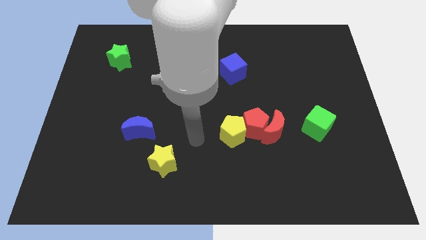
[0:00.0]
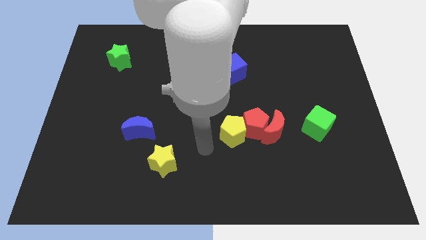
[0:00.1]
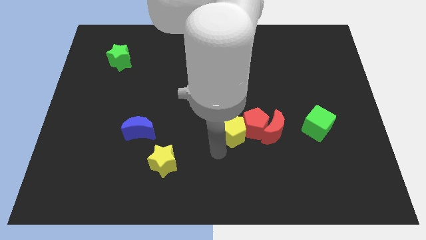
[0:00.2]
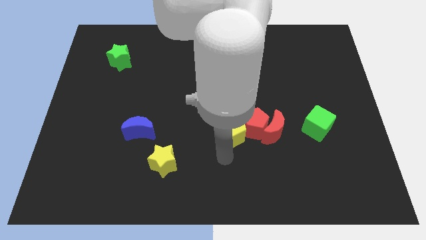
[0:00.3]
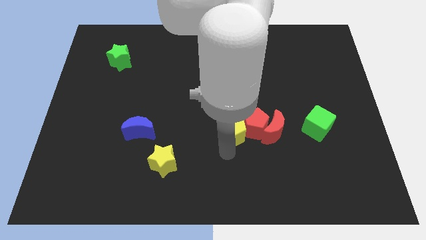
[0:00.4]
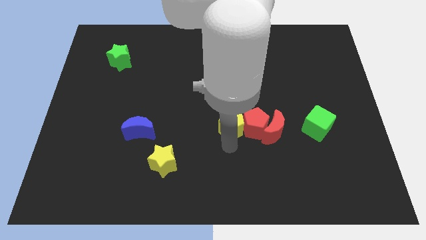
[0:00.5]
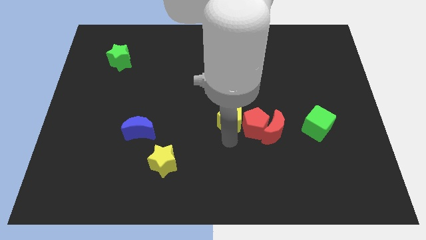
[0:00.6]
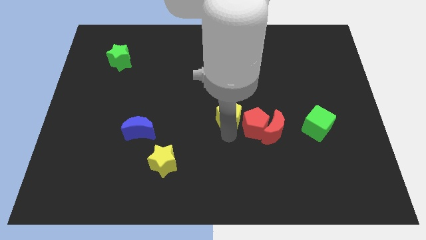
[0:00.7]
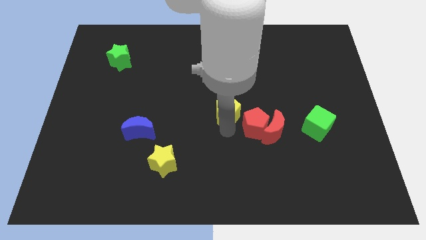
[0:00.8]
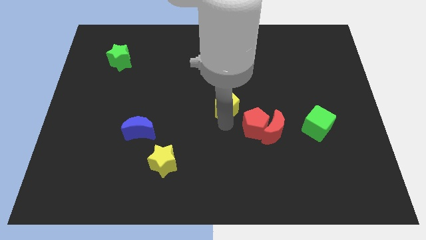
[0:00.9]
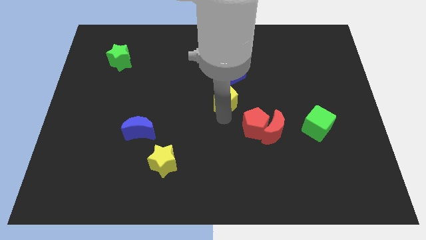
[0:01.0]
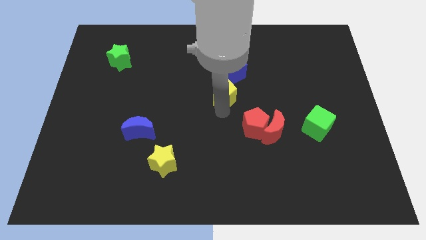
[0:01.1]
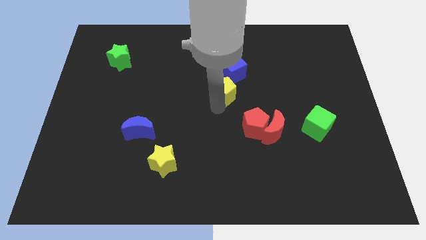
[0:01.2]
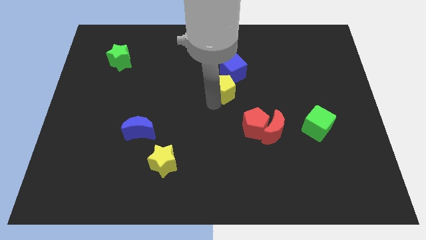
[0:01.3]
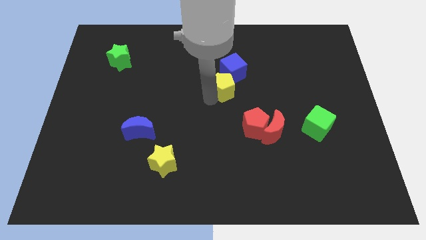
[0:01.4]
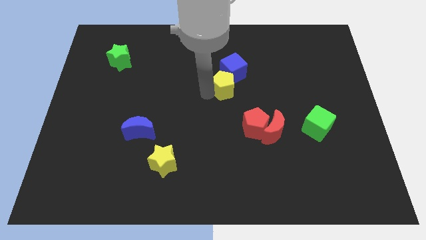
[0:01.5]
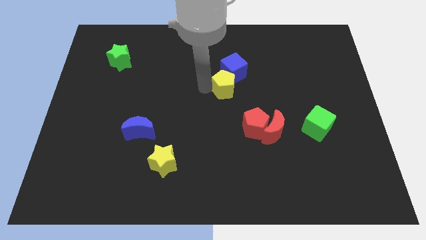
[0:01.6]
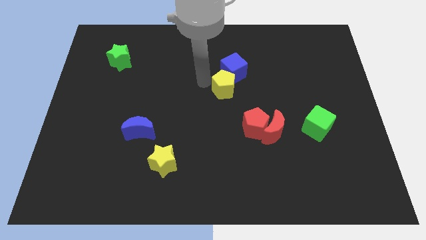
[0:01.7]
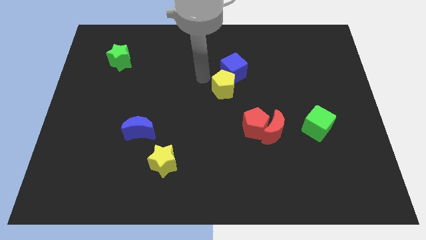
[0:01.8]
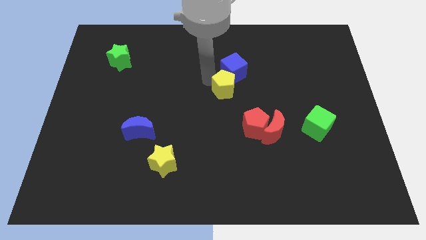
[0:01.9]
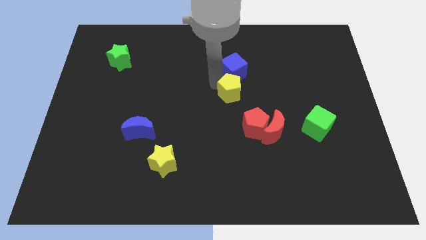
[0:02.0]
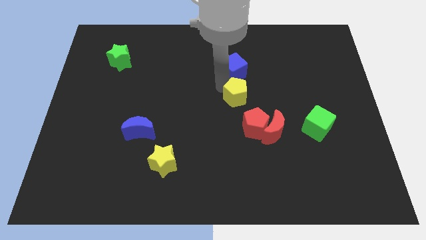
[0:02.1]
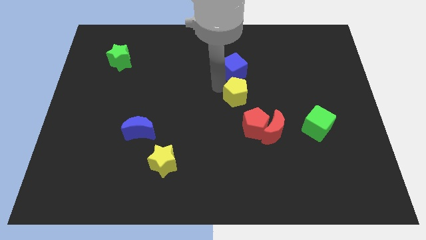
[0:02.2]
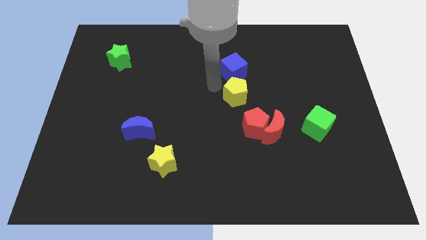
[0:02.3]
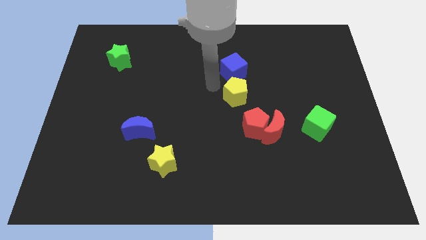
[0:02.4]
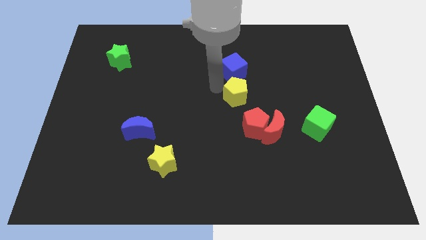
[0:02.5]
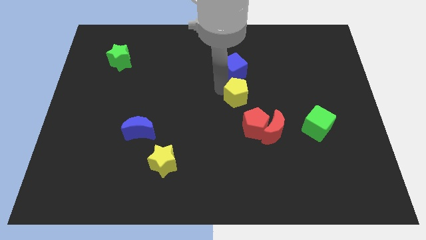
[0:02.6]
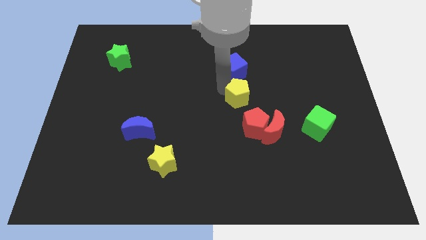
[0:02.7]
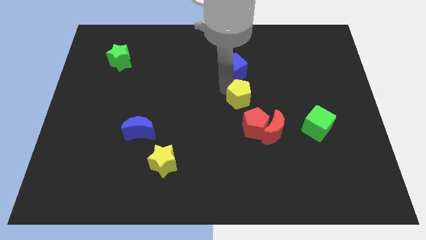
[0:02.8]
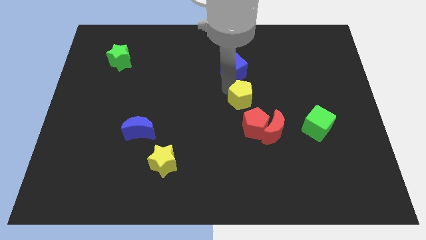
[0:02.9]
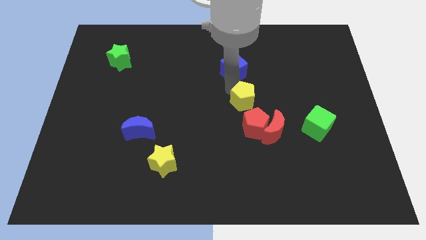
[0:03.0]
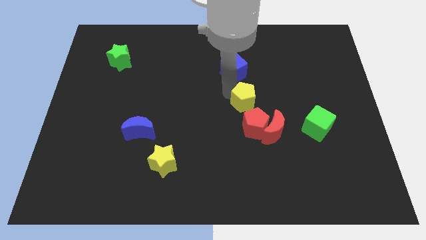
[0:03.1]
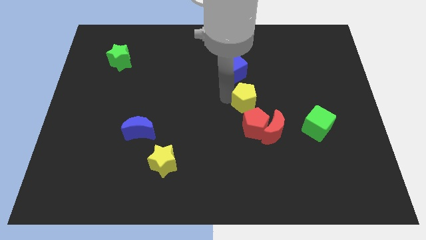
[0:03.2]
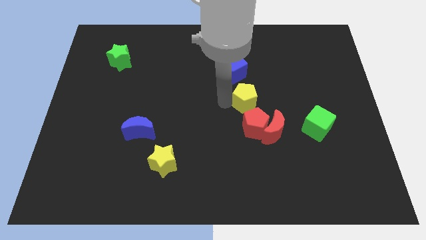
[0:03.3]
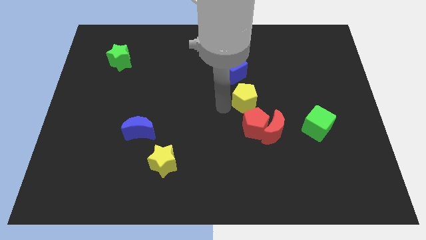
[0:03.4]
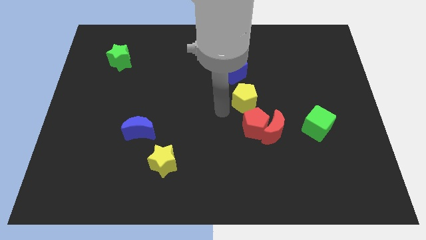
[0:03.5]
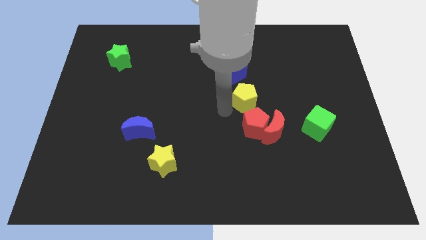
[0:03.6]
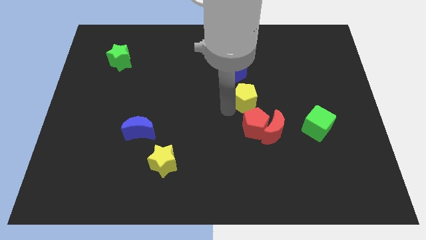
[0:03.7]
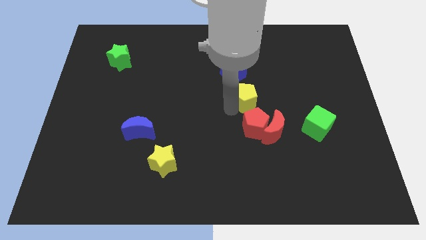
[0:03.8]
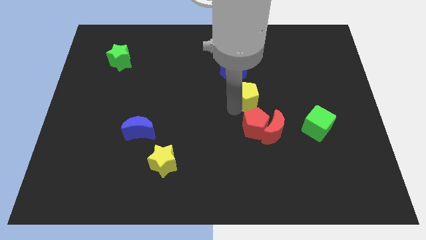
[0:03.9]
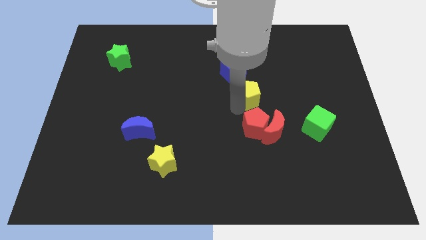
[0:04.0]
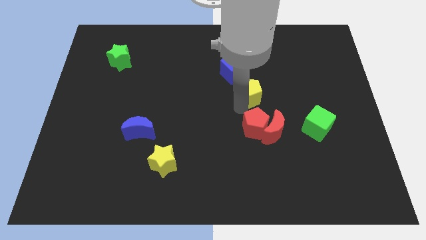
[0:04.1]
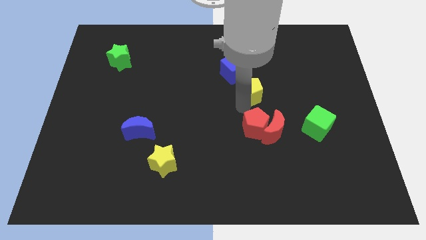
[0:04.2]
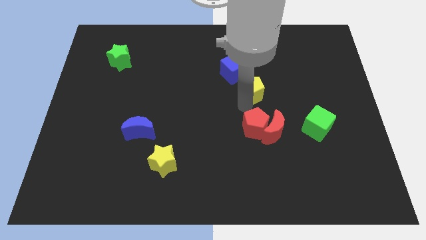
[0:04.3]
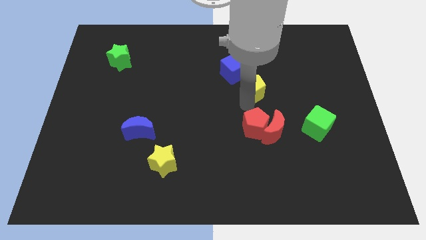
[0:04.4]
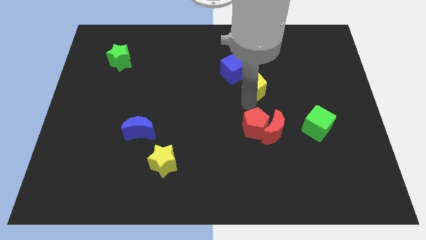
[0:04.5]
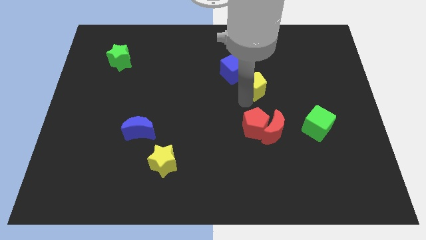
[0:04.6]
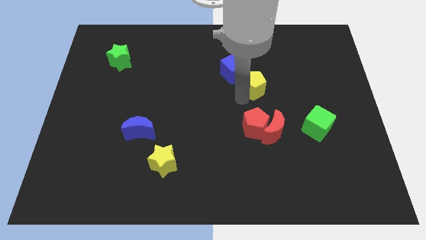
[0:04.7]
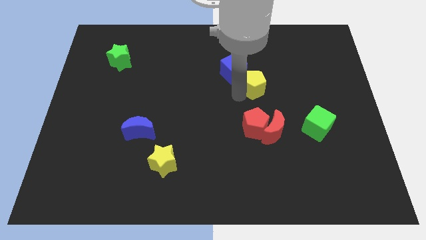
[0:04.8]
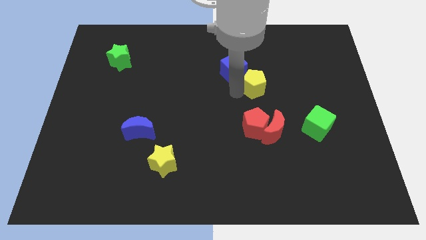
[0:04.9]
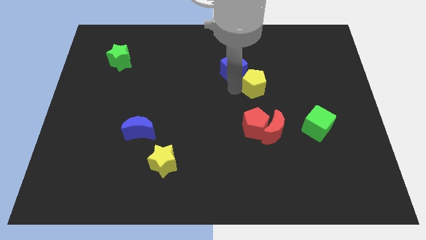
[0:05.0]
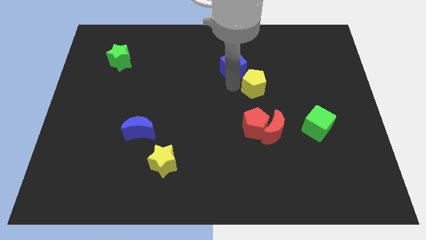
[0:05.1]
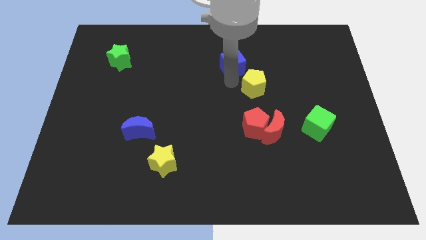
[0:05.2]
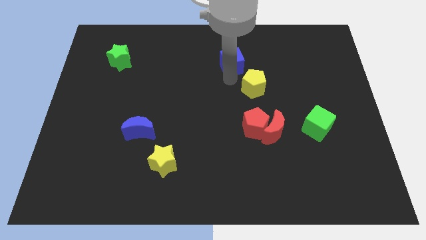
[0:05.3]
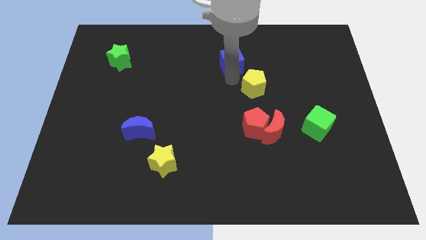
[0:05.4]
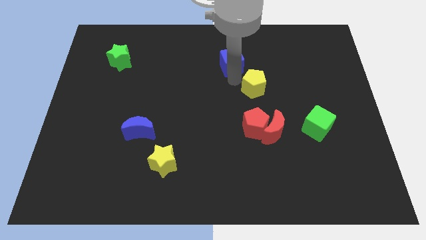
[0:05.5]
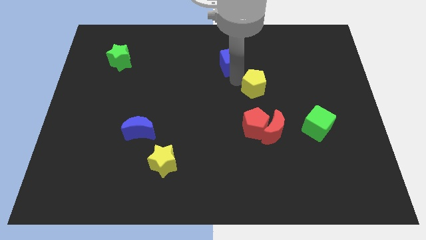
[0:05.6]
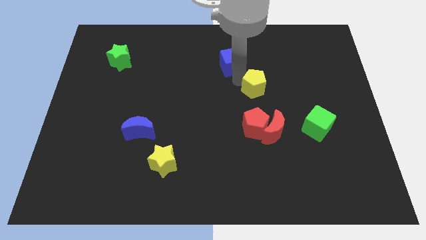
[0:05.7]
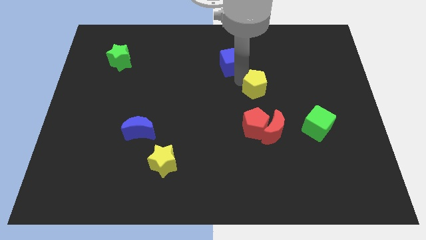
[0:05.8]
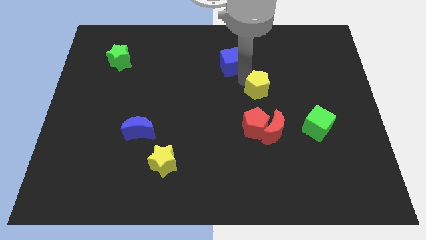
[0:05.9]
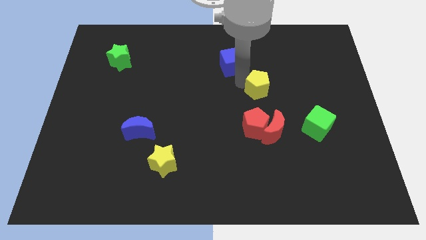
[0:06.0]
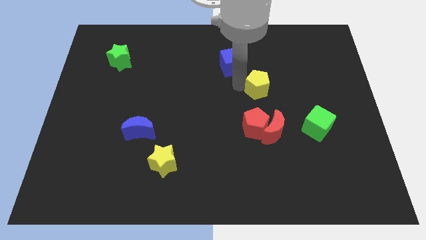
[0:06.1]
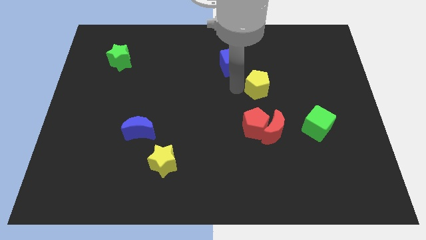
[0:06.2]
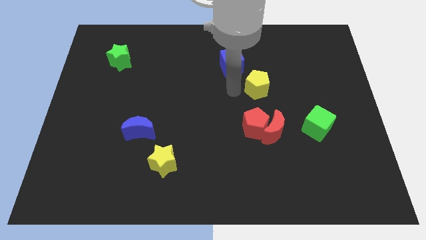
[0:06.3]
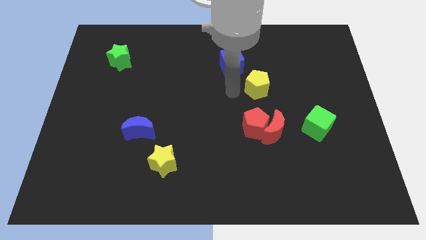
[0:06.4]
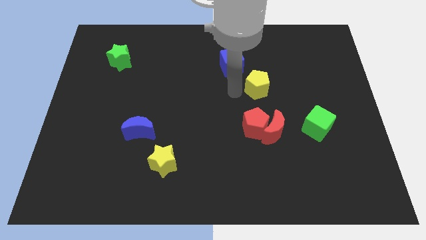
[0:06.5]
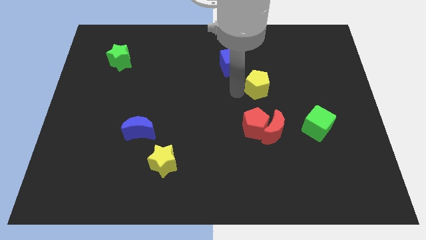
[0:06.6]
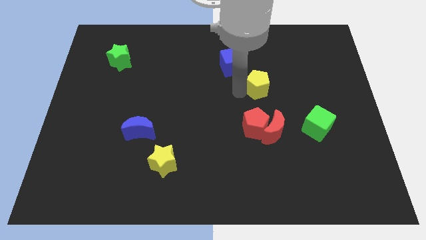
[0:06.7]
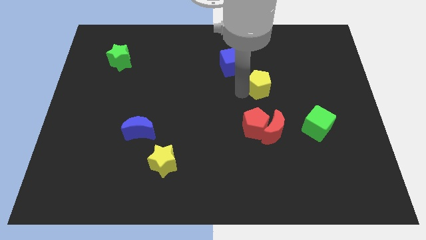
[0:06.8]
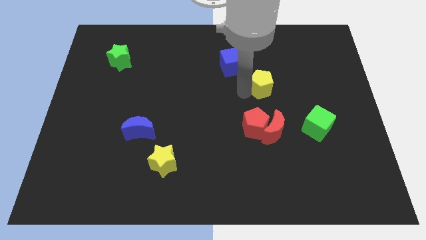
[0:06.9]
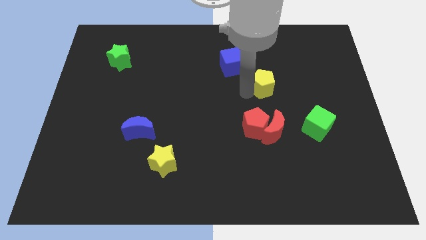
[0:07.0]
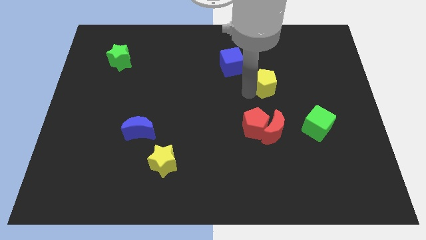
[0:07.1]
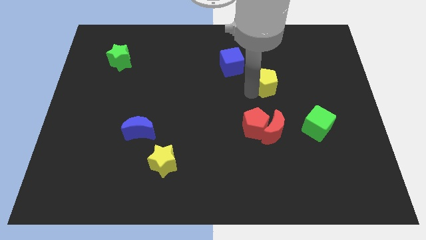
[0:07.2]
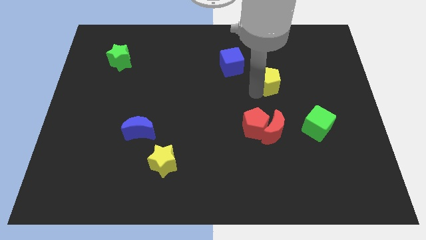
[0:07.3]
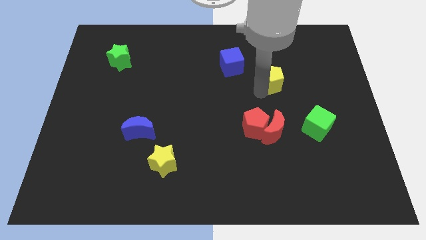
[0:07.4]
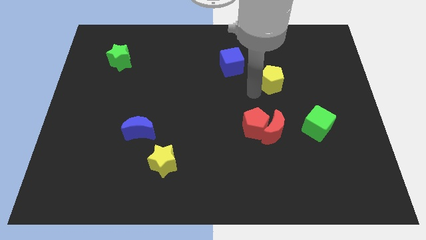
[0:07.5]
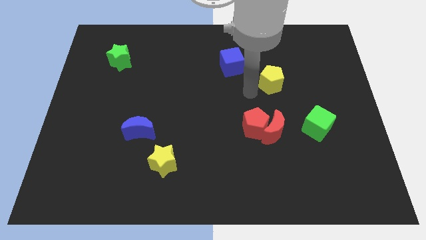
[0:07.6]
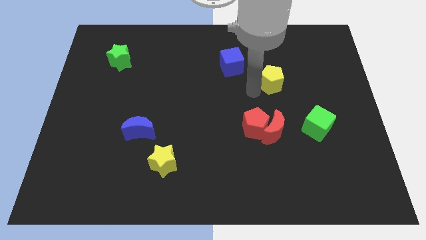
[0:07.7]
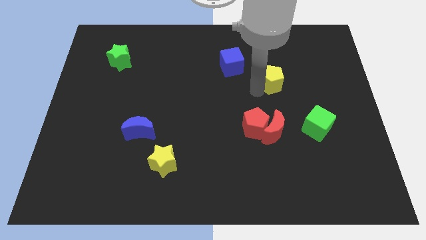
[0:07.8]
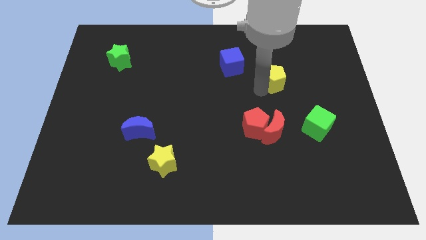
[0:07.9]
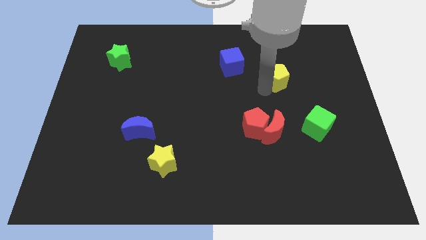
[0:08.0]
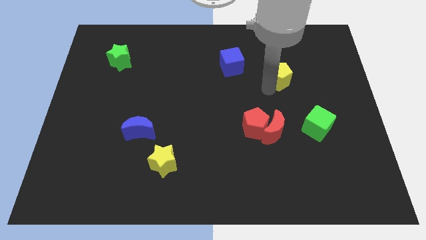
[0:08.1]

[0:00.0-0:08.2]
move the yellow pentagon diagonally upwards and right
